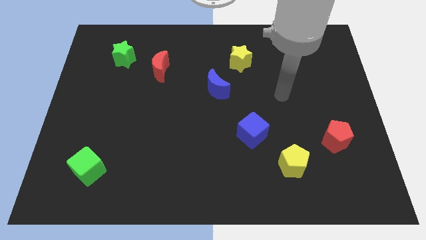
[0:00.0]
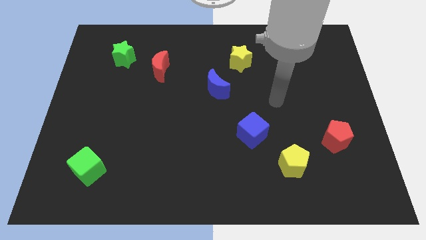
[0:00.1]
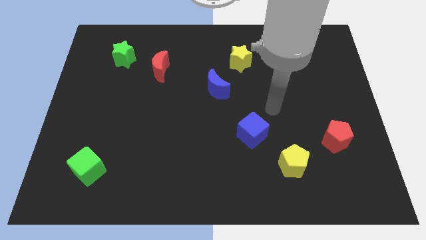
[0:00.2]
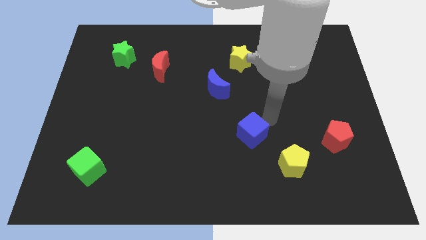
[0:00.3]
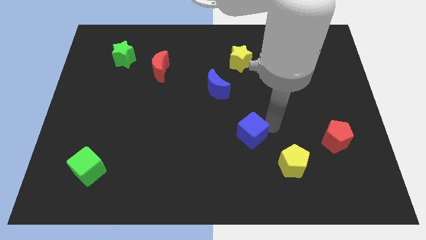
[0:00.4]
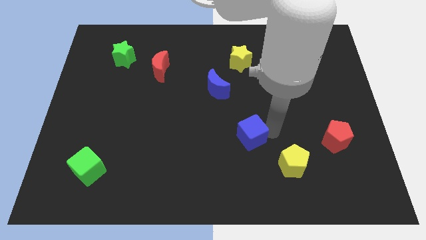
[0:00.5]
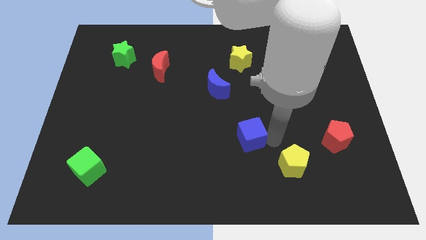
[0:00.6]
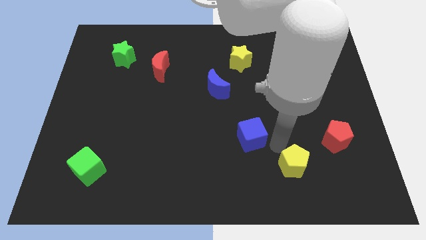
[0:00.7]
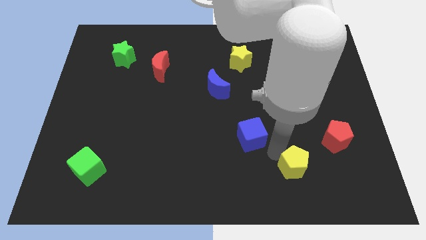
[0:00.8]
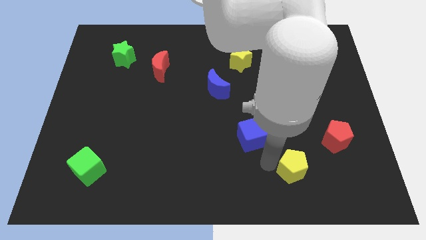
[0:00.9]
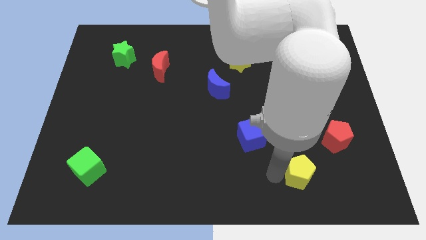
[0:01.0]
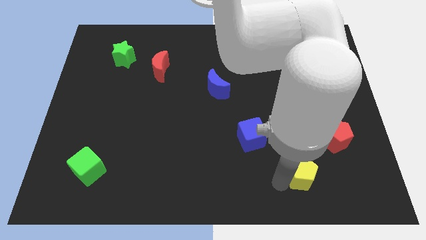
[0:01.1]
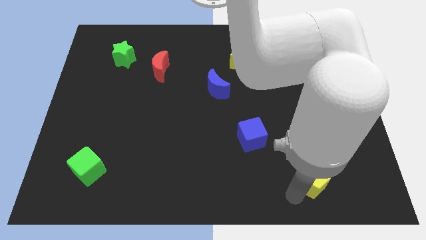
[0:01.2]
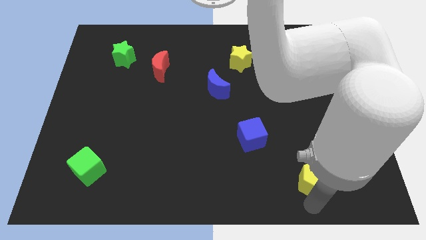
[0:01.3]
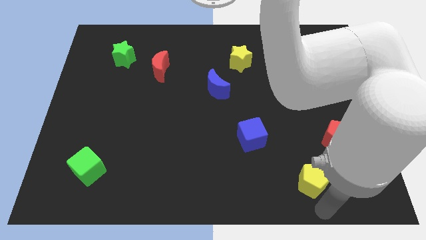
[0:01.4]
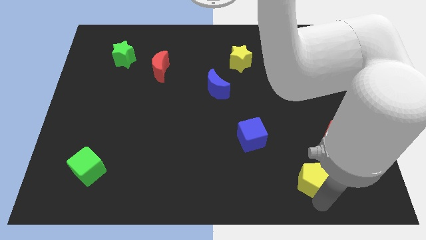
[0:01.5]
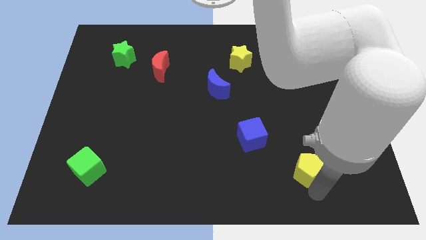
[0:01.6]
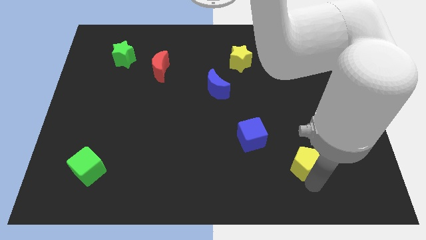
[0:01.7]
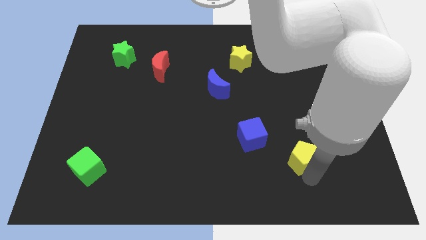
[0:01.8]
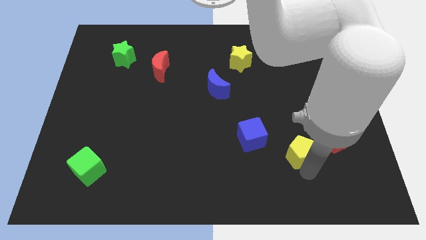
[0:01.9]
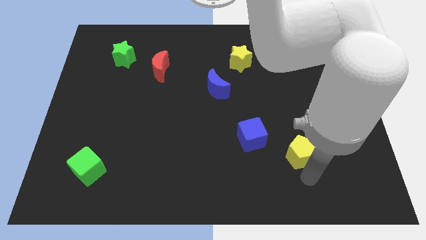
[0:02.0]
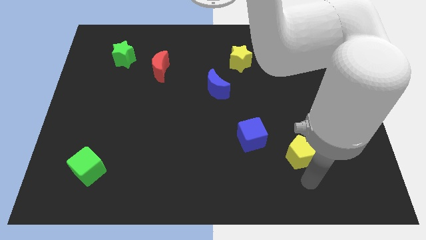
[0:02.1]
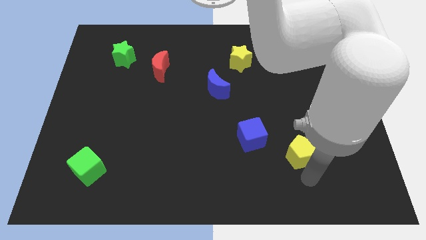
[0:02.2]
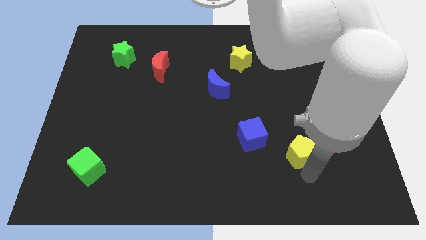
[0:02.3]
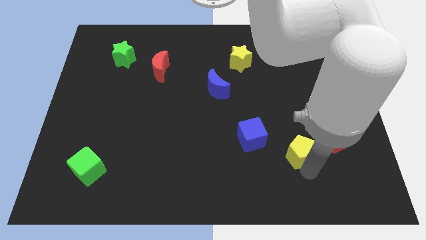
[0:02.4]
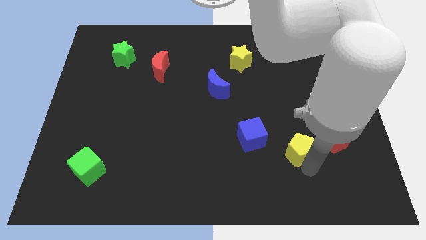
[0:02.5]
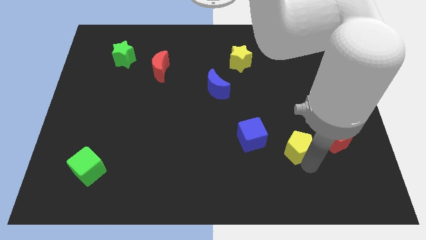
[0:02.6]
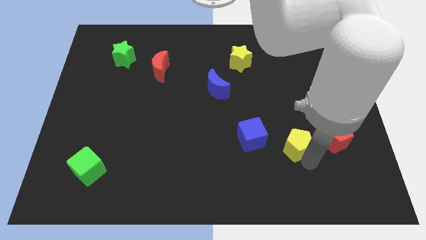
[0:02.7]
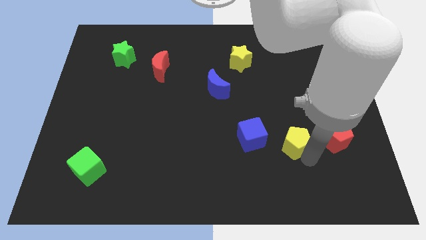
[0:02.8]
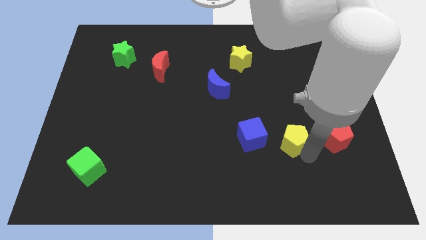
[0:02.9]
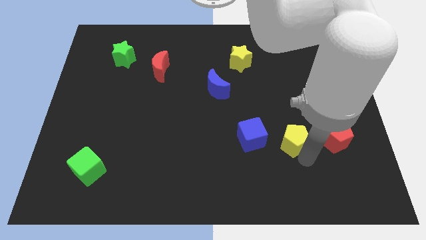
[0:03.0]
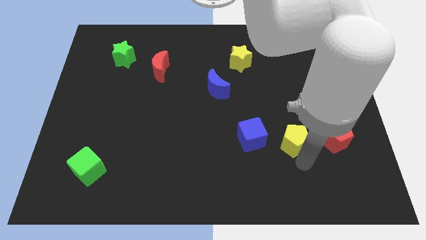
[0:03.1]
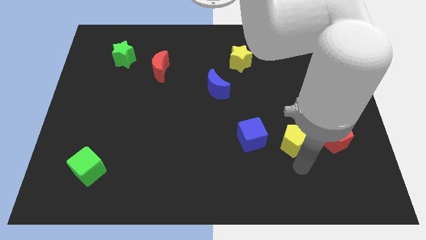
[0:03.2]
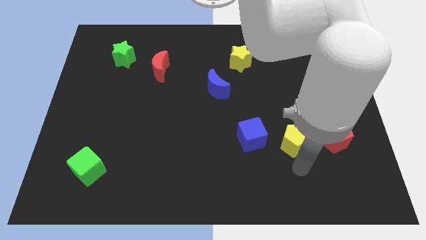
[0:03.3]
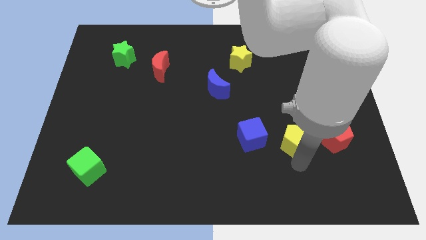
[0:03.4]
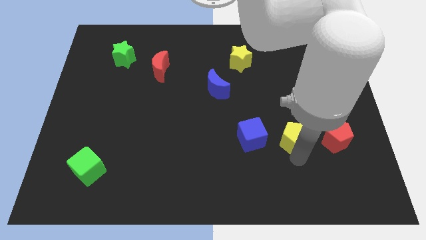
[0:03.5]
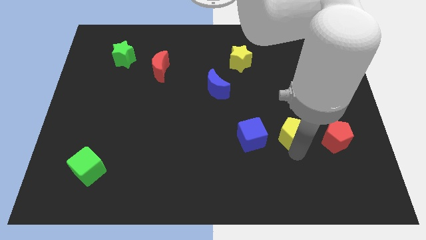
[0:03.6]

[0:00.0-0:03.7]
push the yellow pentagon a little bit up

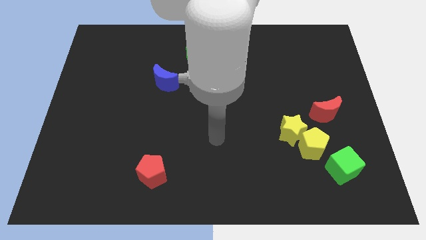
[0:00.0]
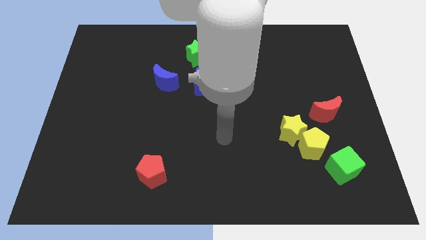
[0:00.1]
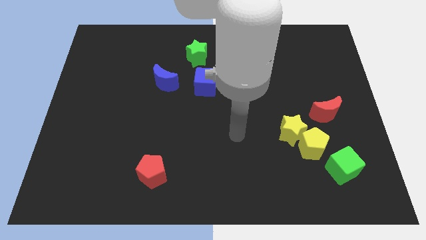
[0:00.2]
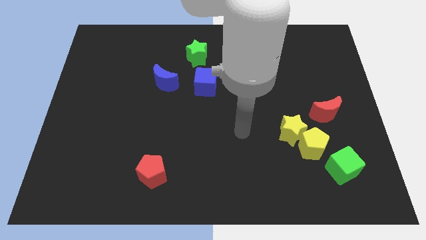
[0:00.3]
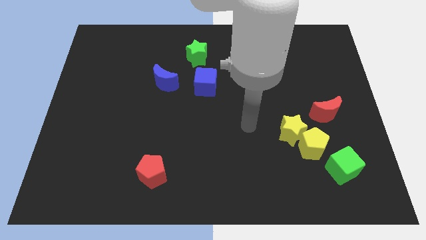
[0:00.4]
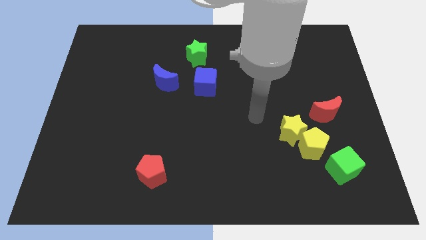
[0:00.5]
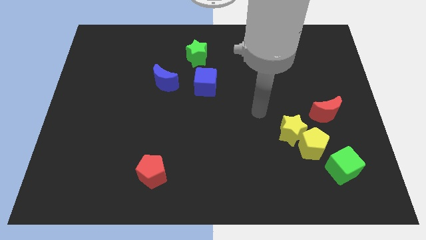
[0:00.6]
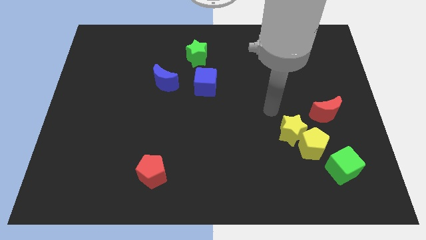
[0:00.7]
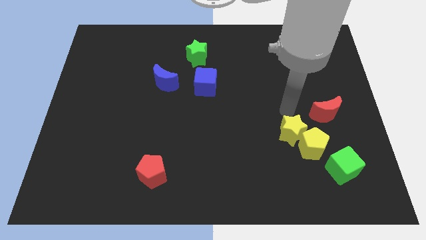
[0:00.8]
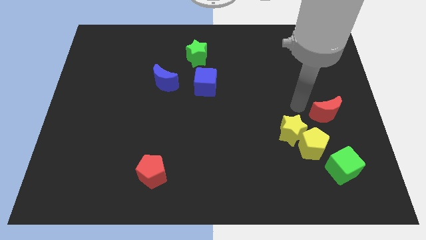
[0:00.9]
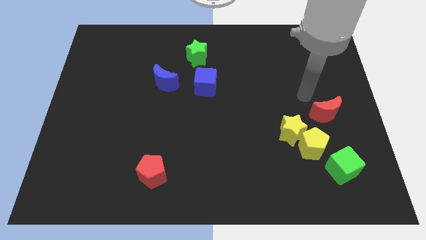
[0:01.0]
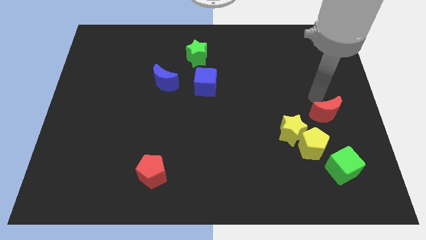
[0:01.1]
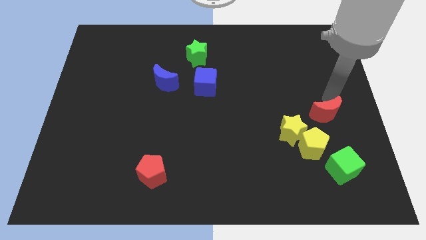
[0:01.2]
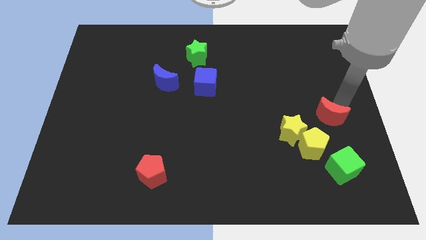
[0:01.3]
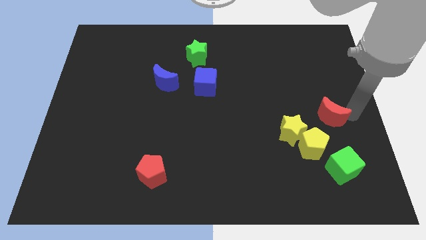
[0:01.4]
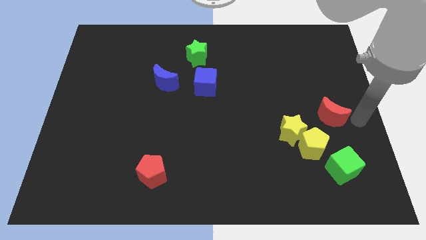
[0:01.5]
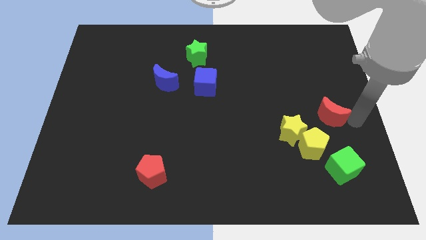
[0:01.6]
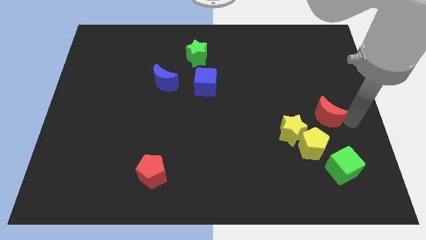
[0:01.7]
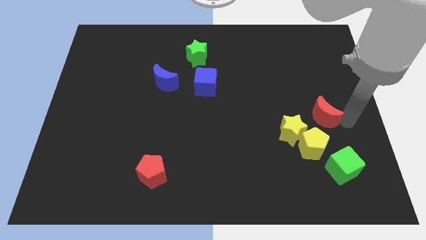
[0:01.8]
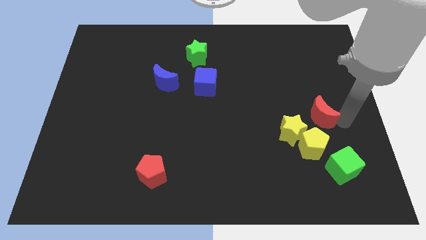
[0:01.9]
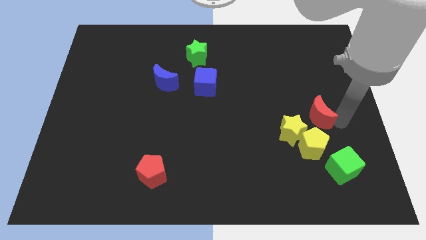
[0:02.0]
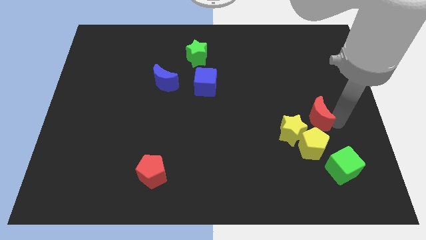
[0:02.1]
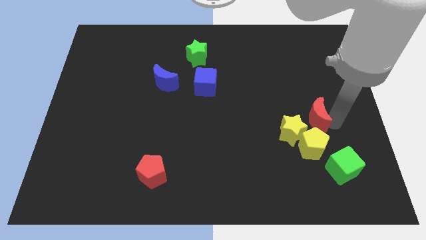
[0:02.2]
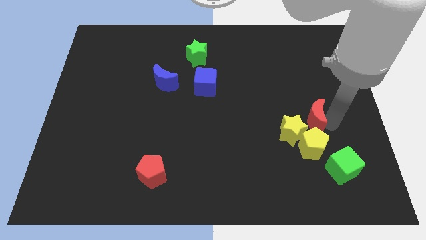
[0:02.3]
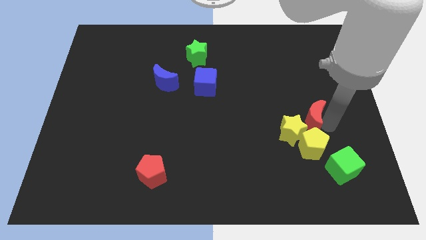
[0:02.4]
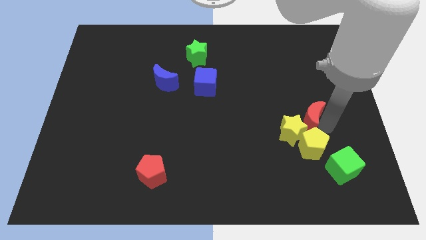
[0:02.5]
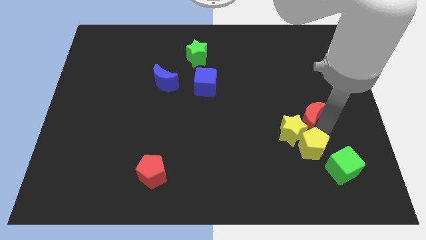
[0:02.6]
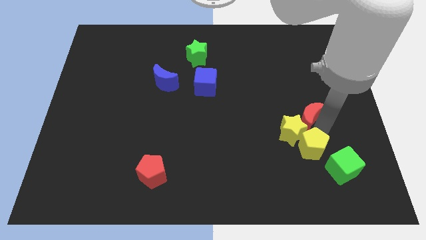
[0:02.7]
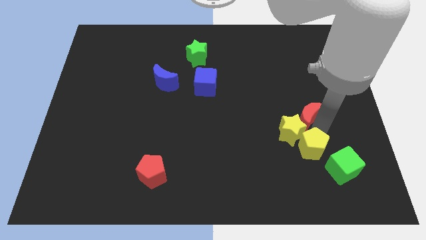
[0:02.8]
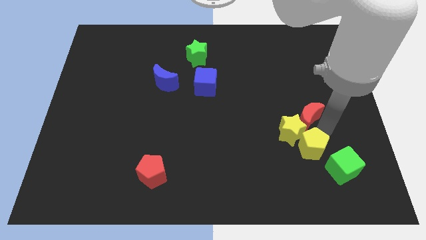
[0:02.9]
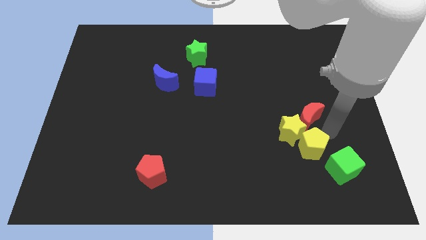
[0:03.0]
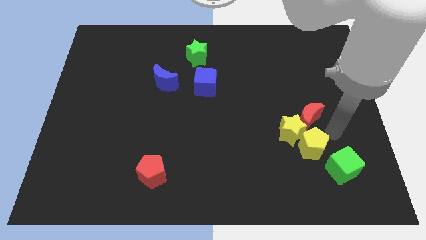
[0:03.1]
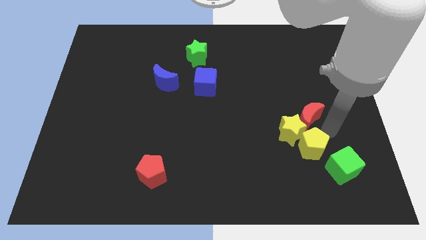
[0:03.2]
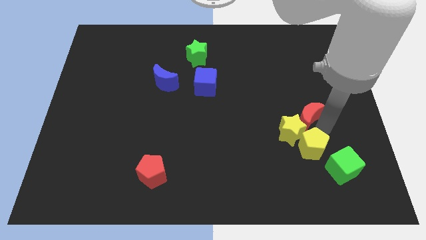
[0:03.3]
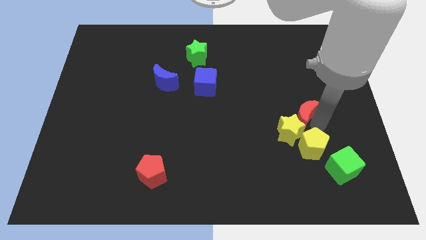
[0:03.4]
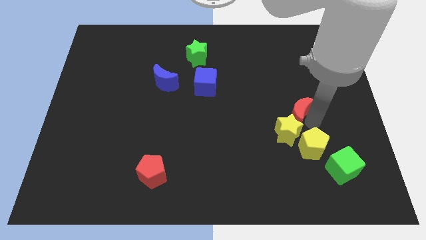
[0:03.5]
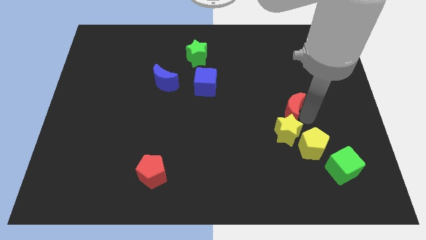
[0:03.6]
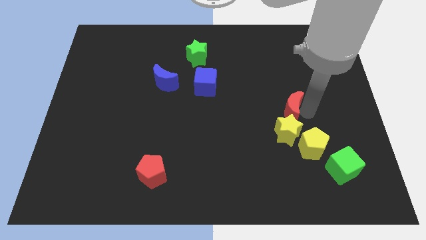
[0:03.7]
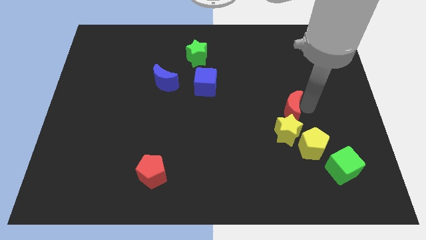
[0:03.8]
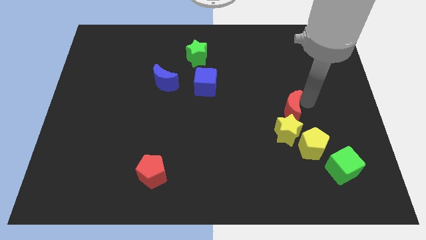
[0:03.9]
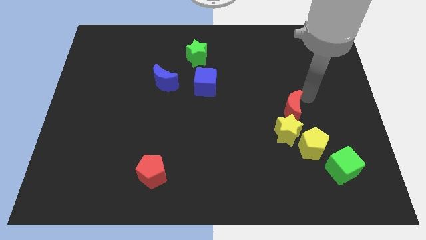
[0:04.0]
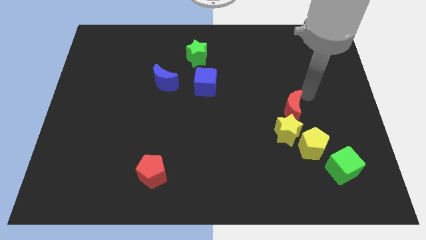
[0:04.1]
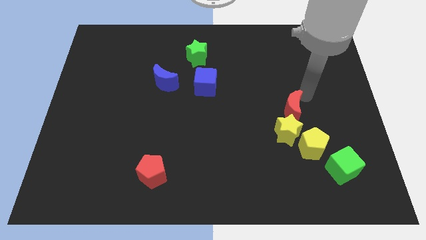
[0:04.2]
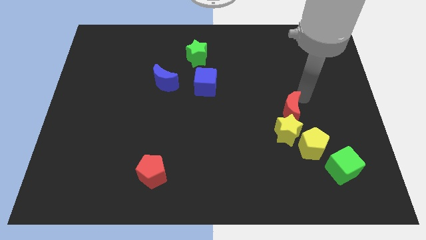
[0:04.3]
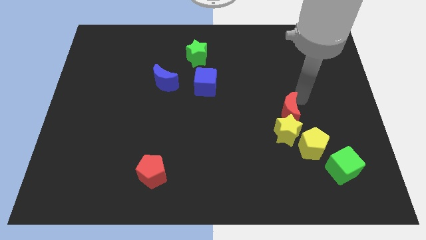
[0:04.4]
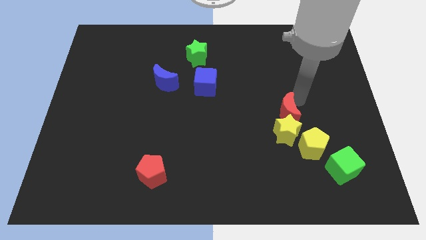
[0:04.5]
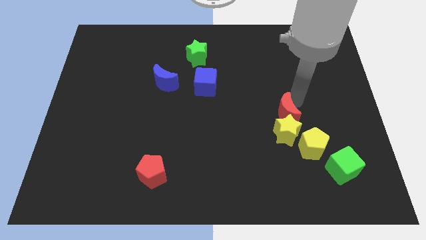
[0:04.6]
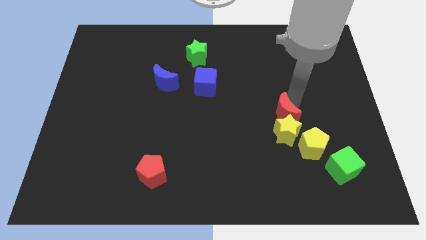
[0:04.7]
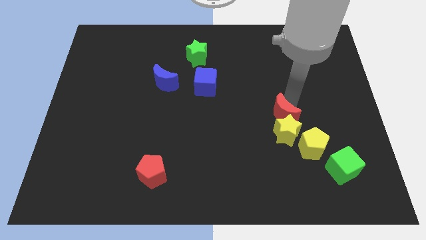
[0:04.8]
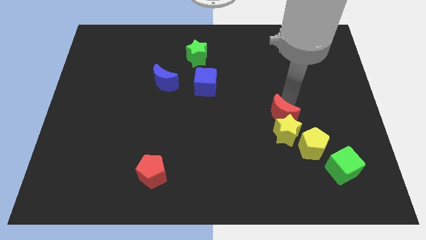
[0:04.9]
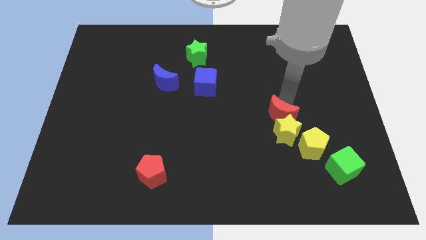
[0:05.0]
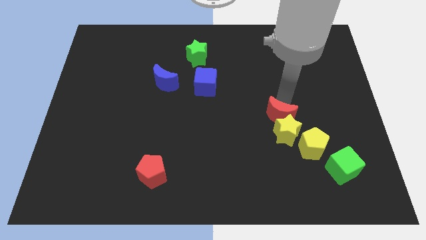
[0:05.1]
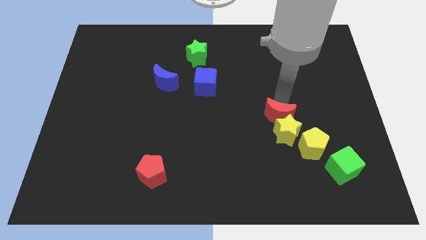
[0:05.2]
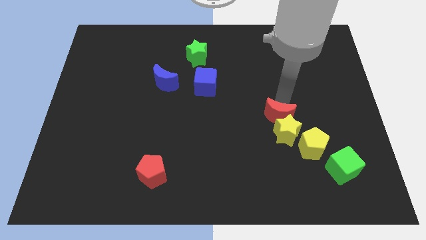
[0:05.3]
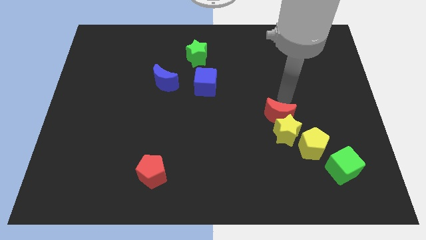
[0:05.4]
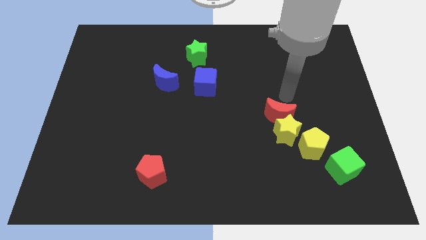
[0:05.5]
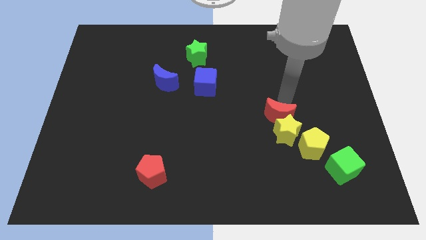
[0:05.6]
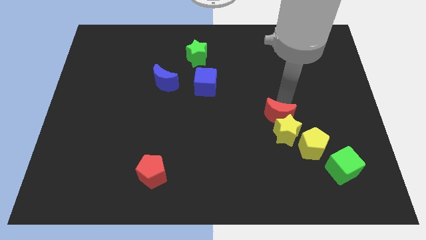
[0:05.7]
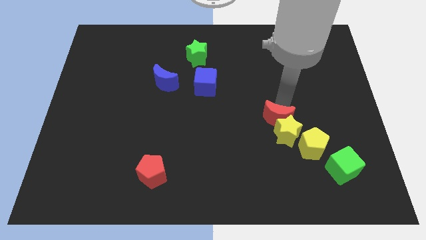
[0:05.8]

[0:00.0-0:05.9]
push the red moon down and to the left a little
